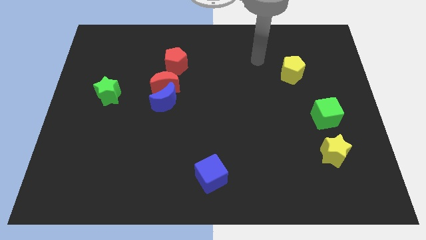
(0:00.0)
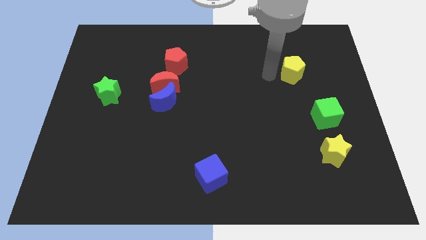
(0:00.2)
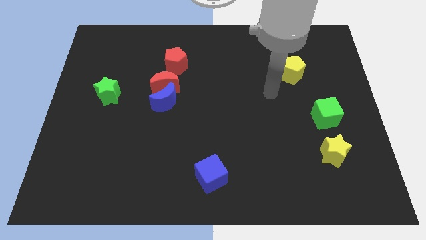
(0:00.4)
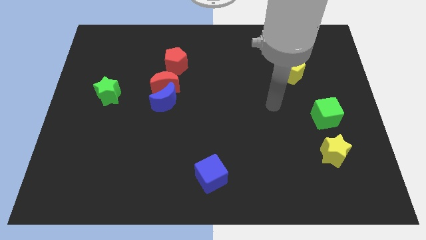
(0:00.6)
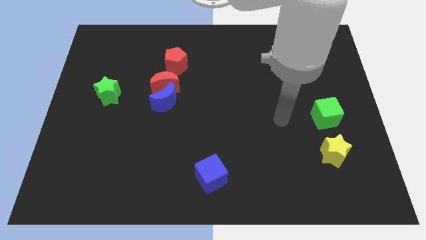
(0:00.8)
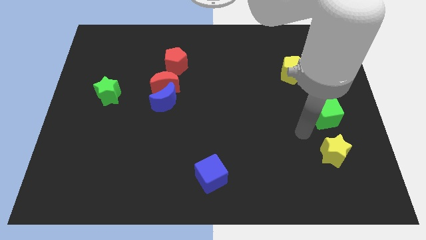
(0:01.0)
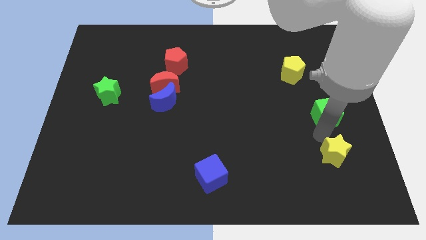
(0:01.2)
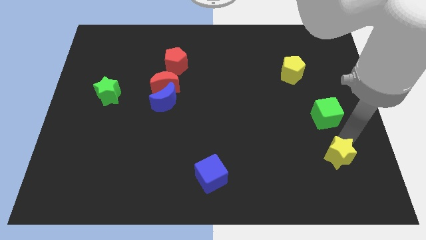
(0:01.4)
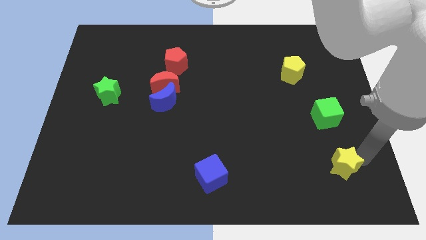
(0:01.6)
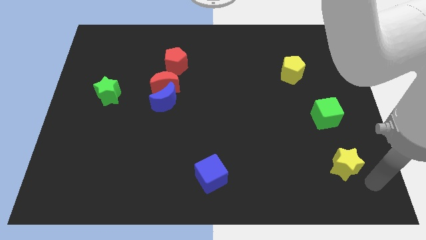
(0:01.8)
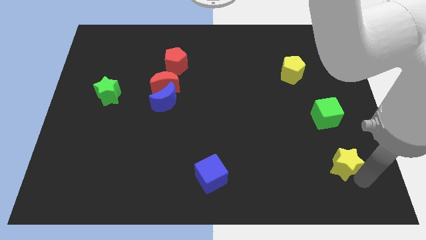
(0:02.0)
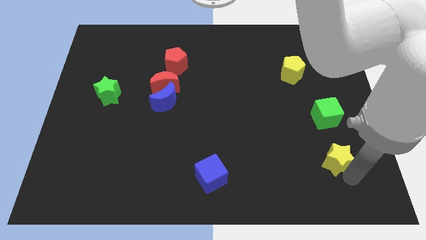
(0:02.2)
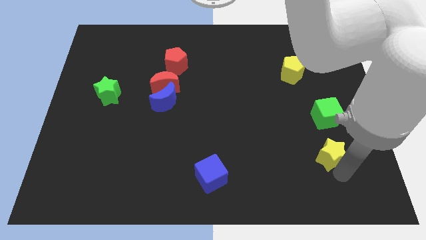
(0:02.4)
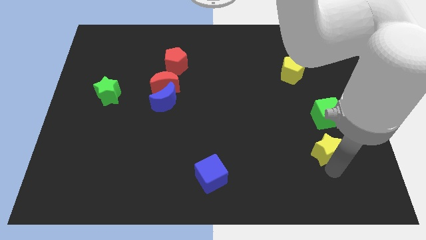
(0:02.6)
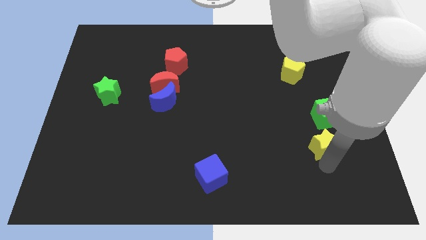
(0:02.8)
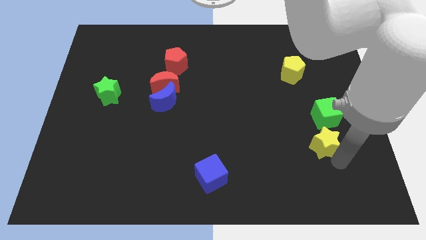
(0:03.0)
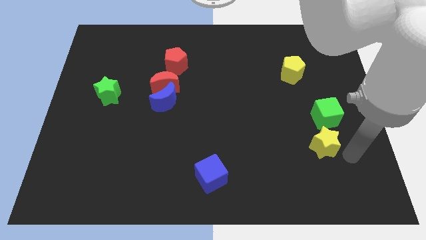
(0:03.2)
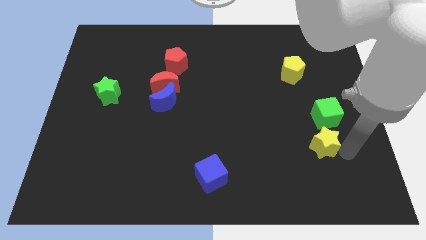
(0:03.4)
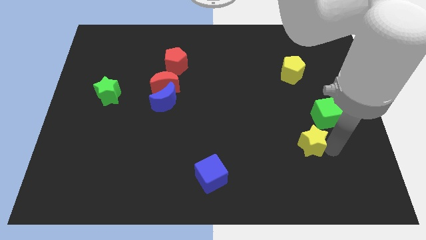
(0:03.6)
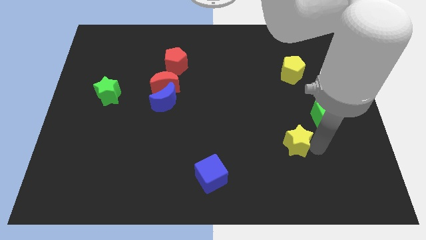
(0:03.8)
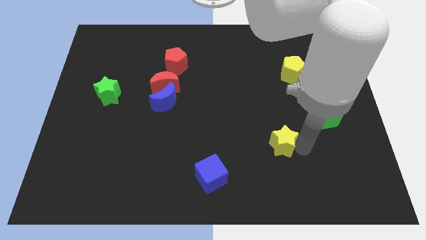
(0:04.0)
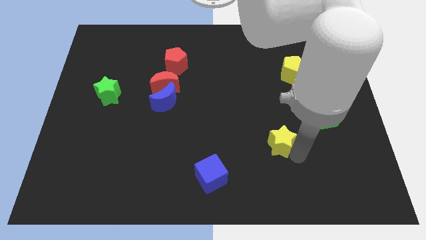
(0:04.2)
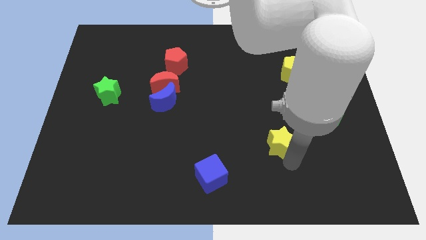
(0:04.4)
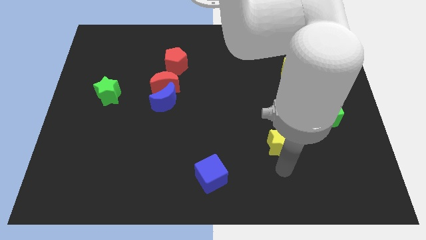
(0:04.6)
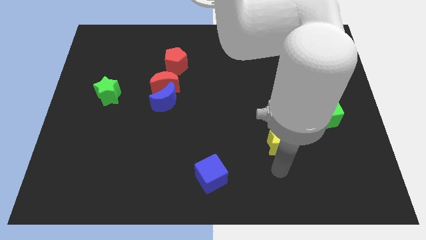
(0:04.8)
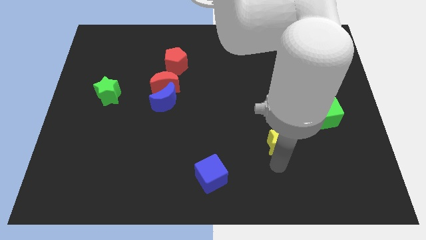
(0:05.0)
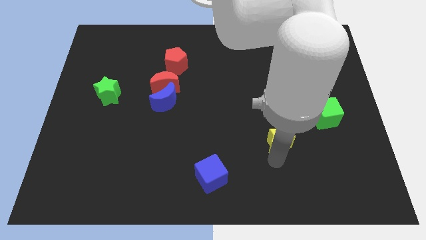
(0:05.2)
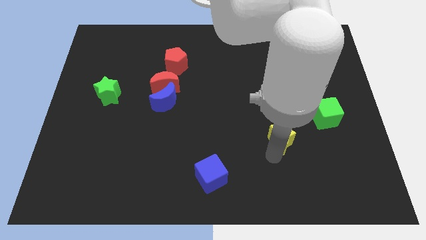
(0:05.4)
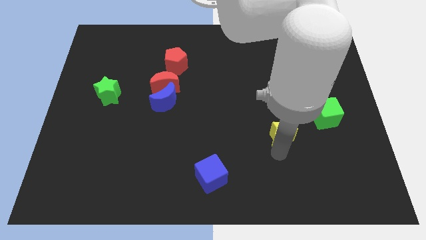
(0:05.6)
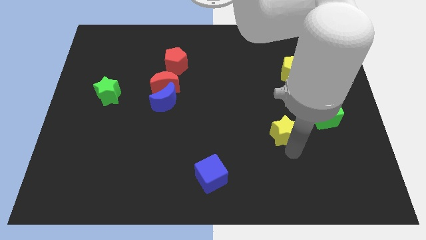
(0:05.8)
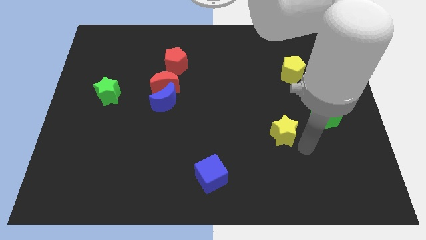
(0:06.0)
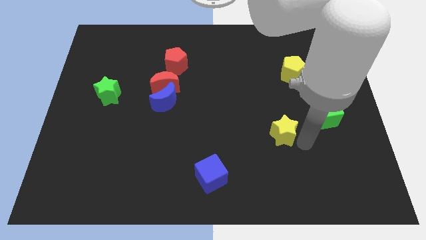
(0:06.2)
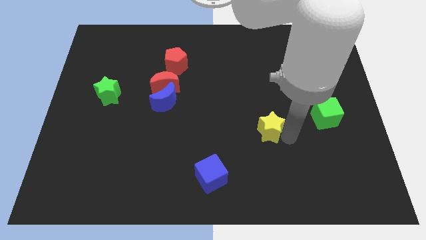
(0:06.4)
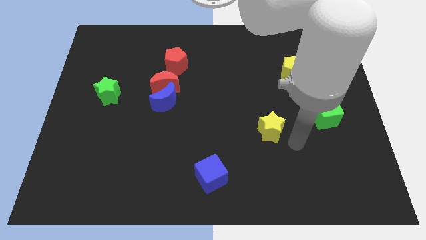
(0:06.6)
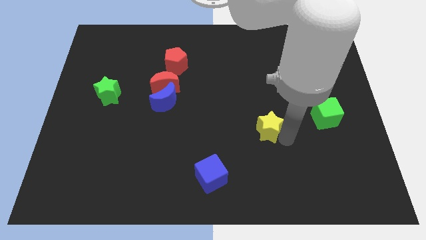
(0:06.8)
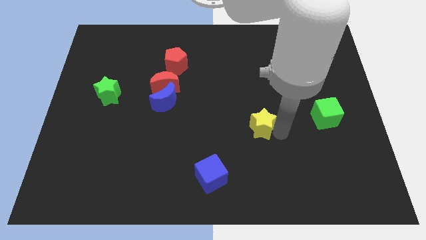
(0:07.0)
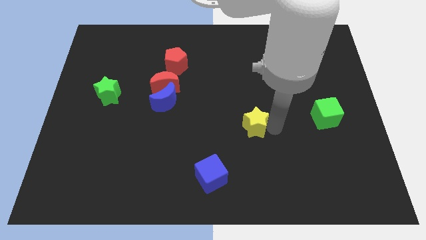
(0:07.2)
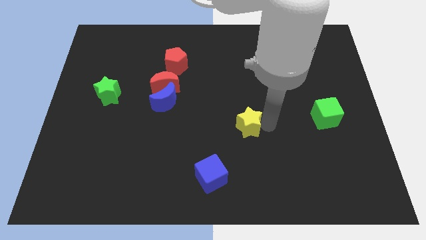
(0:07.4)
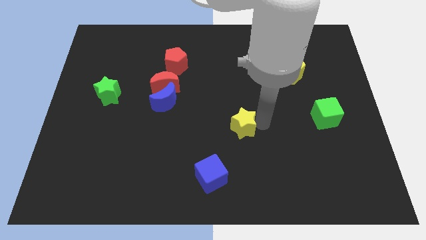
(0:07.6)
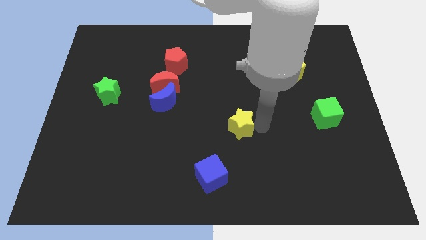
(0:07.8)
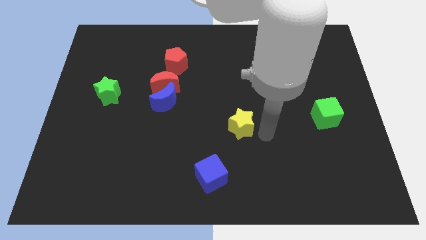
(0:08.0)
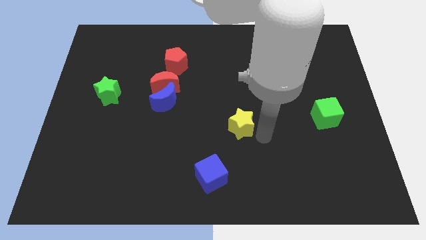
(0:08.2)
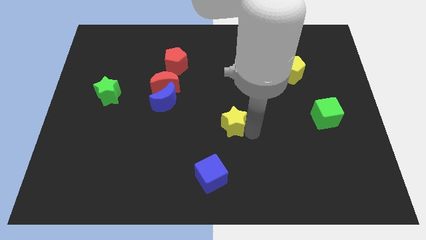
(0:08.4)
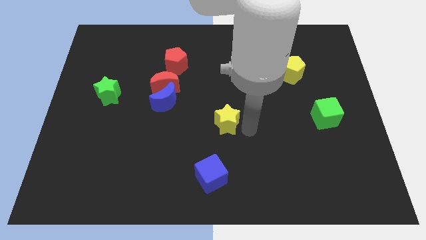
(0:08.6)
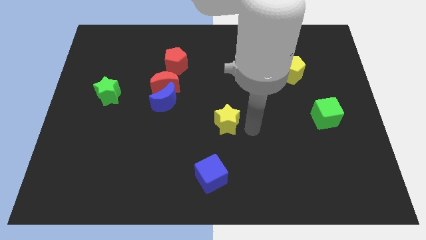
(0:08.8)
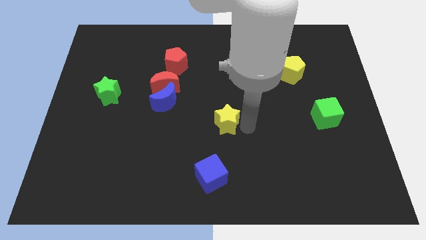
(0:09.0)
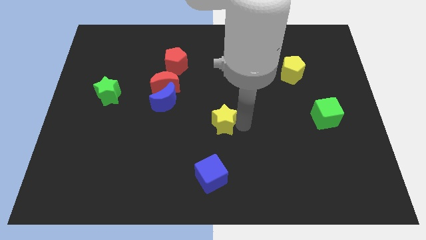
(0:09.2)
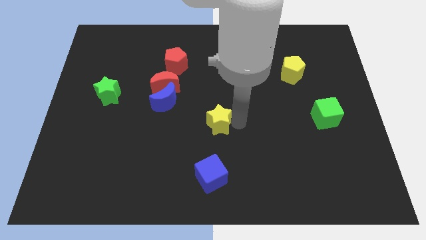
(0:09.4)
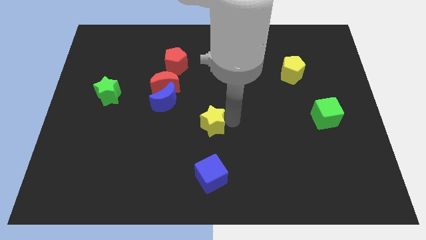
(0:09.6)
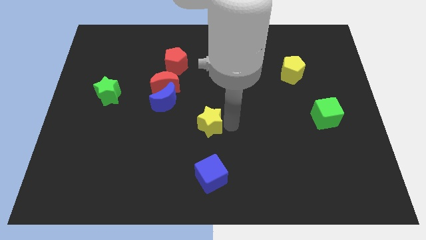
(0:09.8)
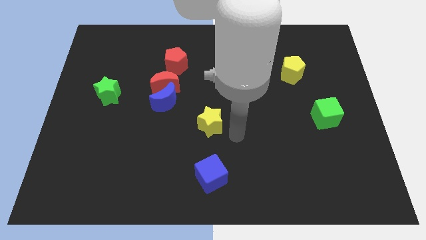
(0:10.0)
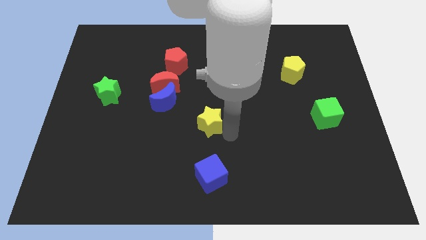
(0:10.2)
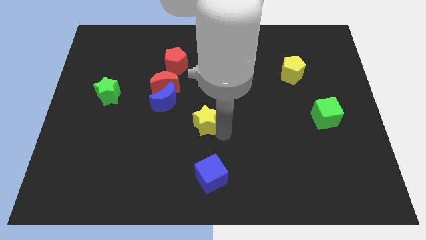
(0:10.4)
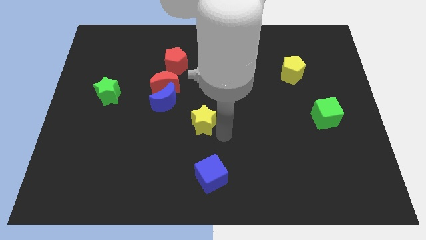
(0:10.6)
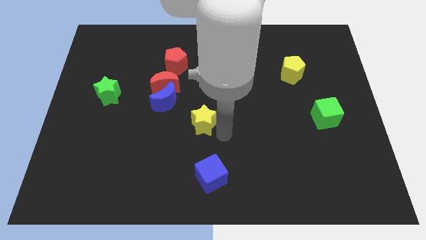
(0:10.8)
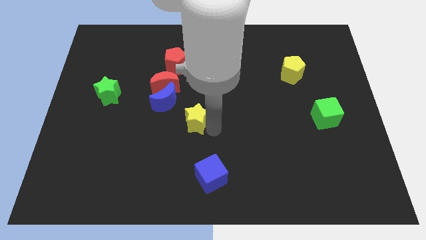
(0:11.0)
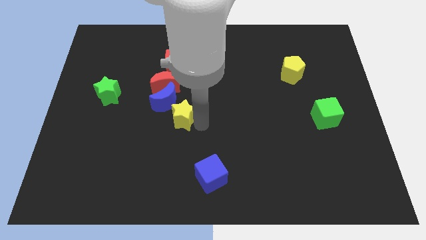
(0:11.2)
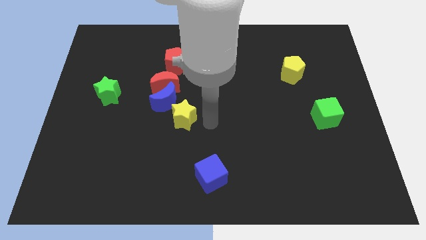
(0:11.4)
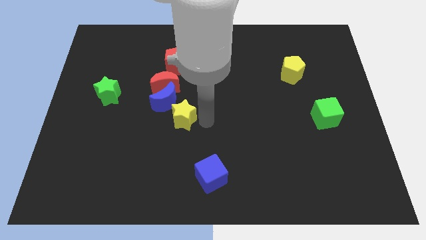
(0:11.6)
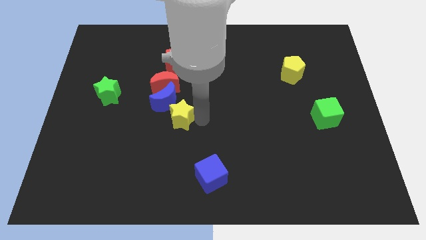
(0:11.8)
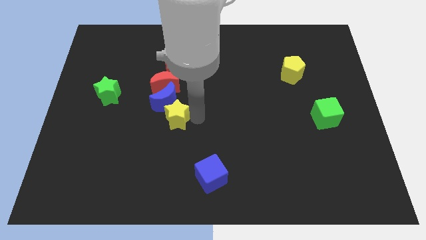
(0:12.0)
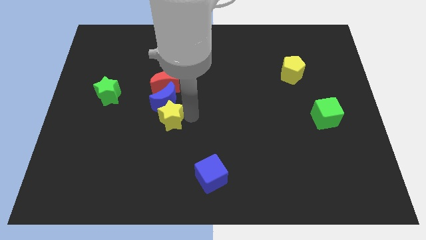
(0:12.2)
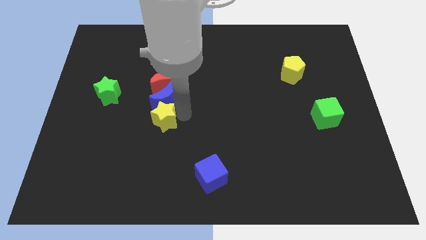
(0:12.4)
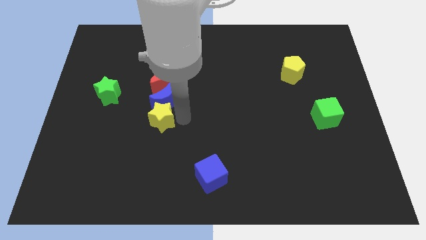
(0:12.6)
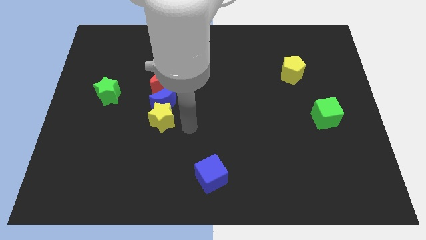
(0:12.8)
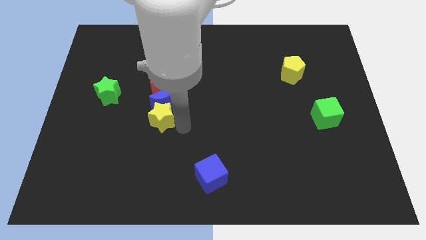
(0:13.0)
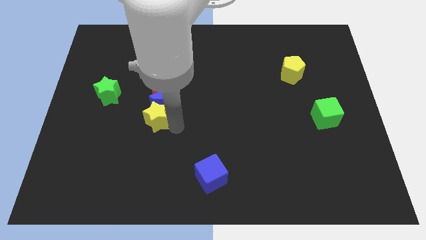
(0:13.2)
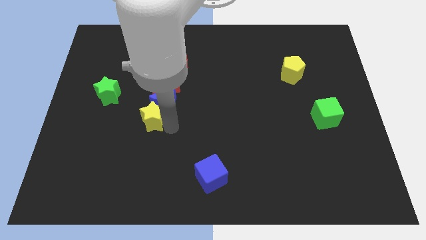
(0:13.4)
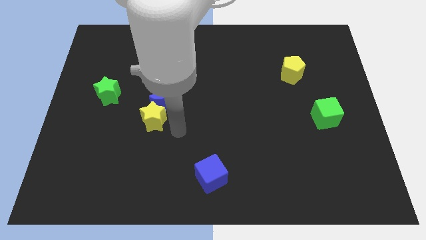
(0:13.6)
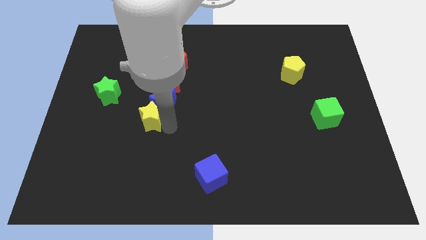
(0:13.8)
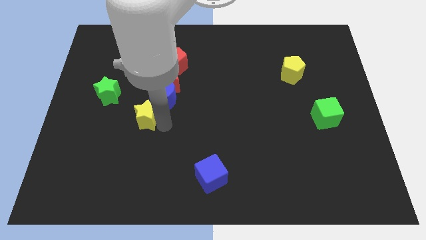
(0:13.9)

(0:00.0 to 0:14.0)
put the yellow star to the bottom left side of the red moon
